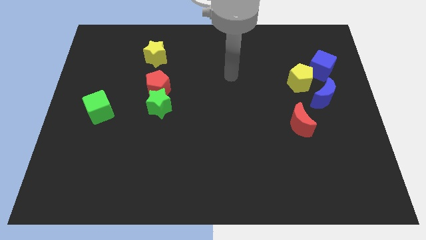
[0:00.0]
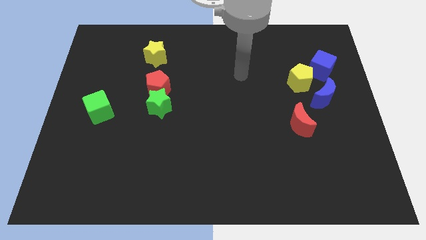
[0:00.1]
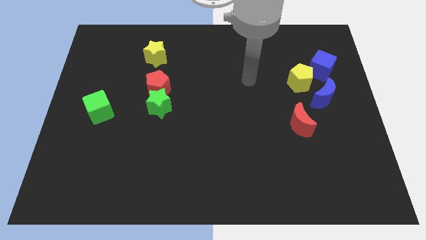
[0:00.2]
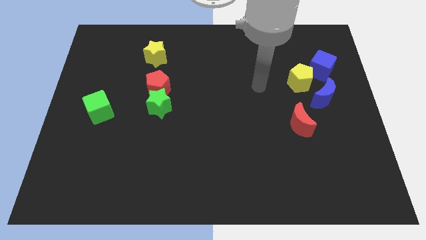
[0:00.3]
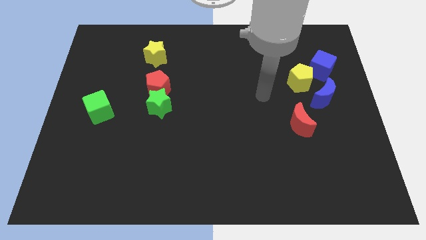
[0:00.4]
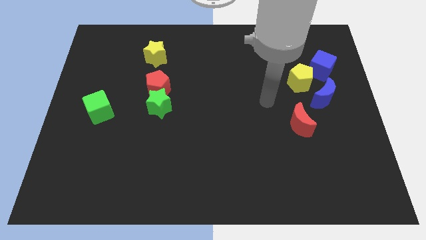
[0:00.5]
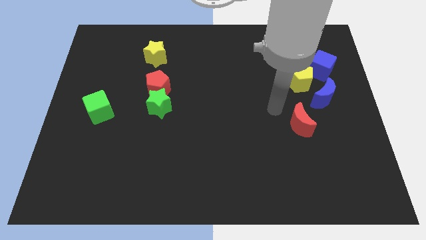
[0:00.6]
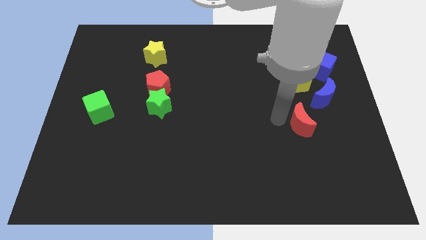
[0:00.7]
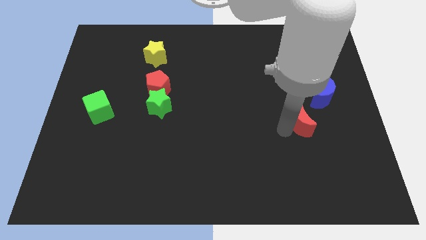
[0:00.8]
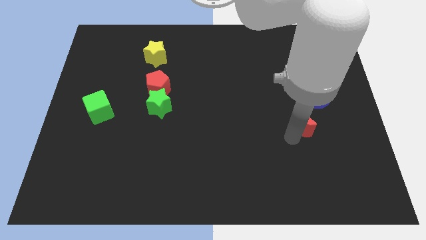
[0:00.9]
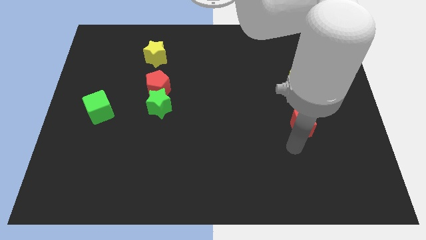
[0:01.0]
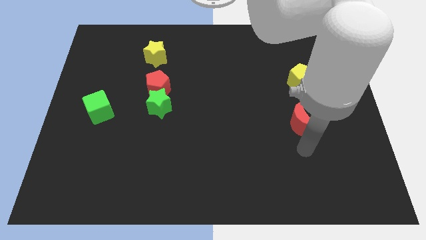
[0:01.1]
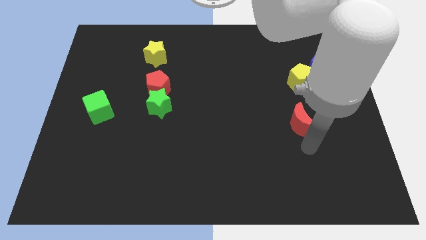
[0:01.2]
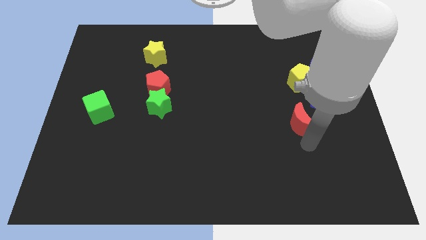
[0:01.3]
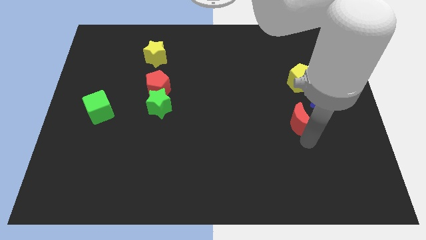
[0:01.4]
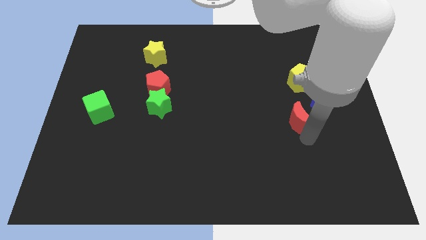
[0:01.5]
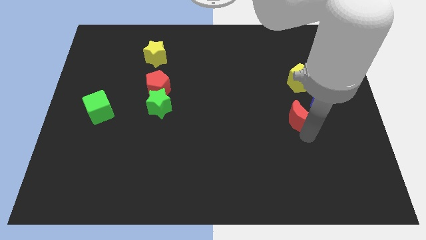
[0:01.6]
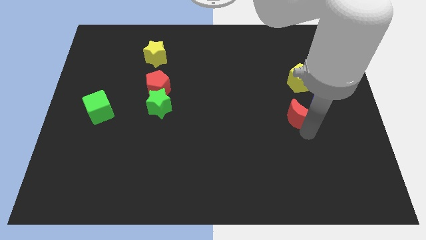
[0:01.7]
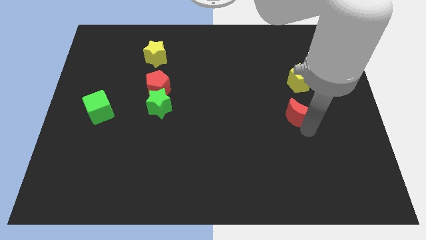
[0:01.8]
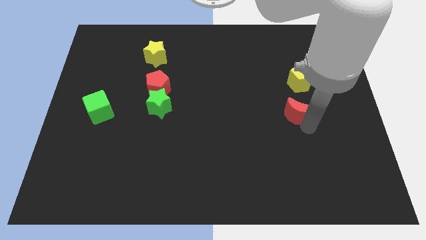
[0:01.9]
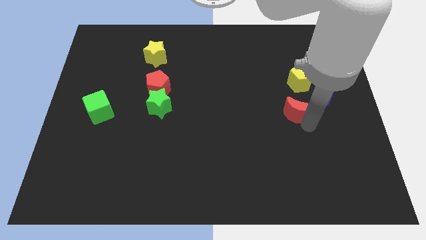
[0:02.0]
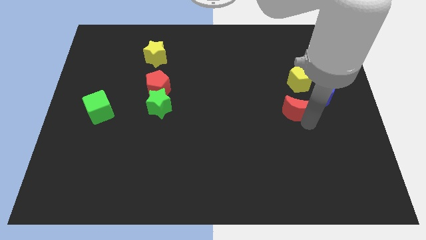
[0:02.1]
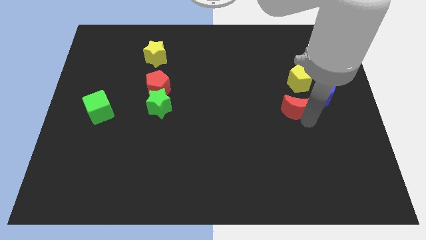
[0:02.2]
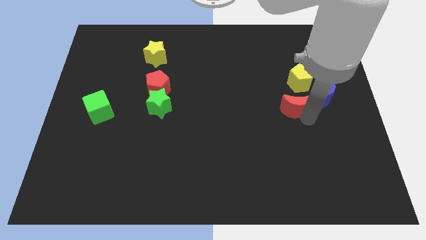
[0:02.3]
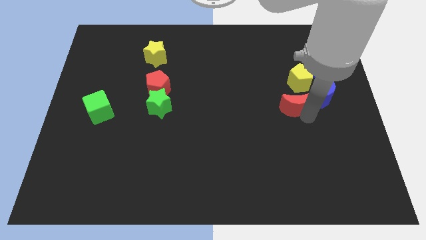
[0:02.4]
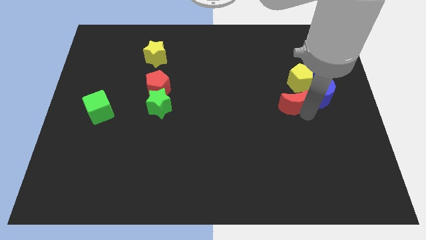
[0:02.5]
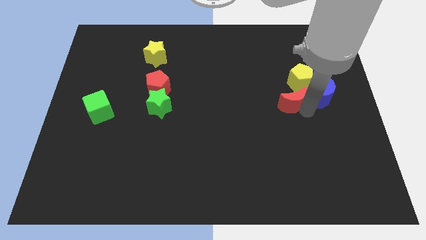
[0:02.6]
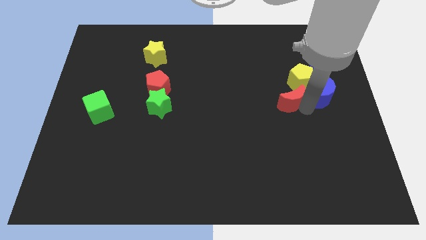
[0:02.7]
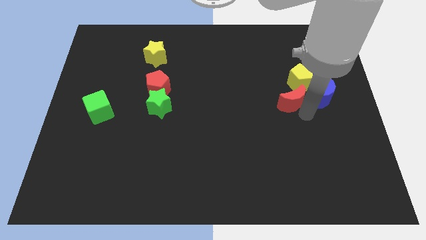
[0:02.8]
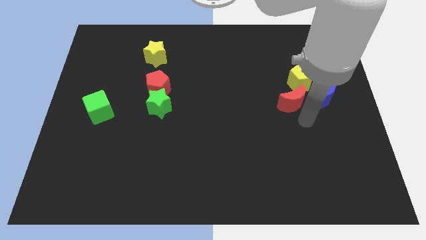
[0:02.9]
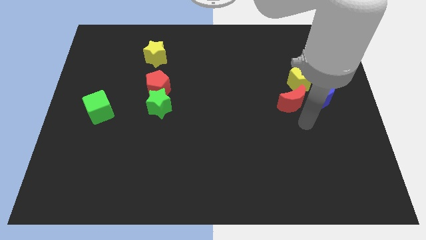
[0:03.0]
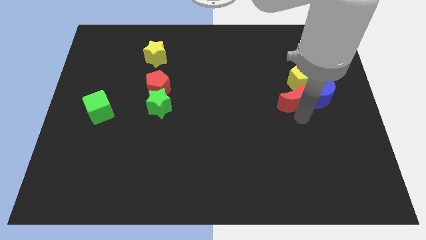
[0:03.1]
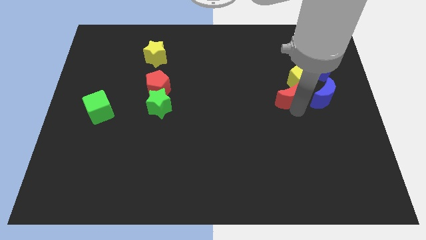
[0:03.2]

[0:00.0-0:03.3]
slide the red moon a bit up

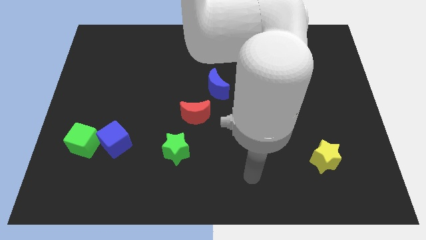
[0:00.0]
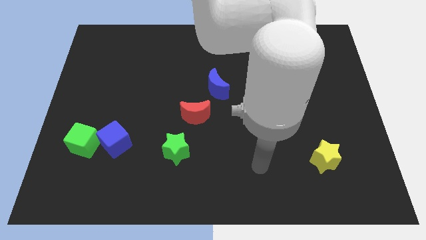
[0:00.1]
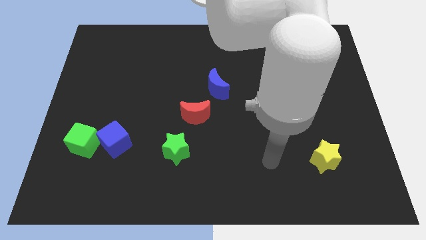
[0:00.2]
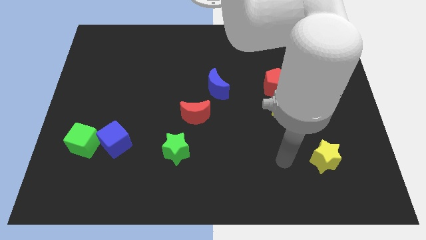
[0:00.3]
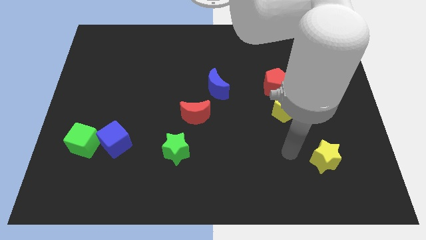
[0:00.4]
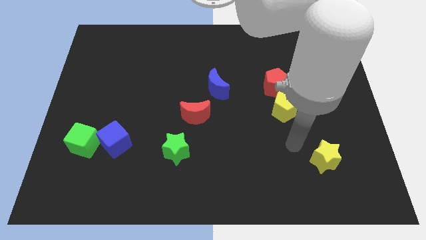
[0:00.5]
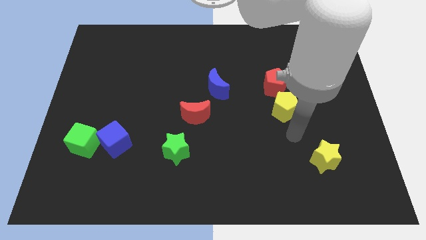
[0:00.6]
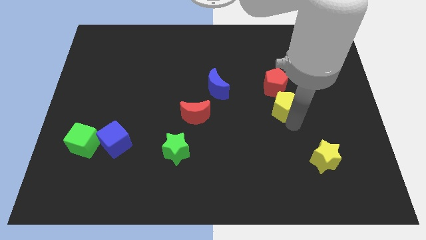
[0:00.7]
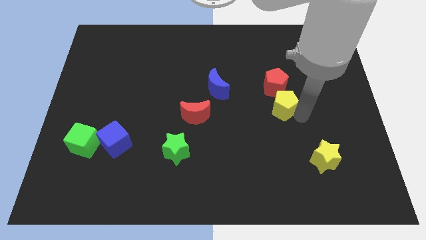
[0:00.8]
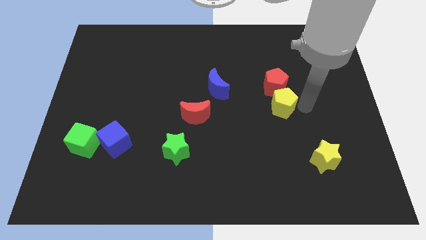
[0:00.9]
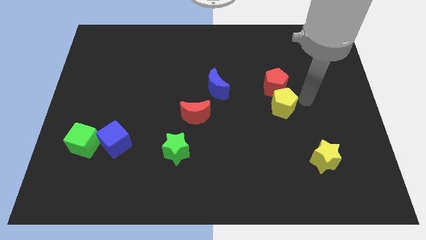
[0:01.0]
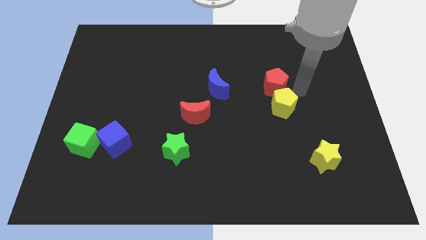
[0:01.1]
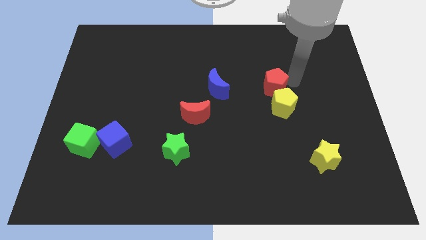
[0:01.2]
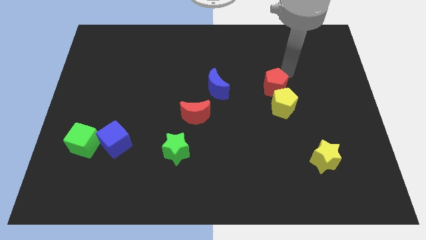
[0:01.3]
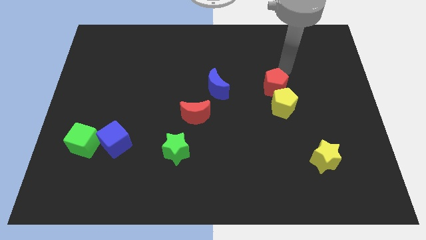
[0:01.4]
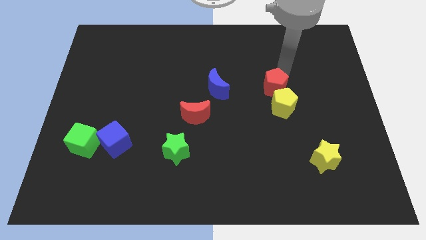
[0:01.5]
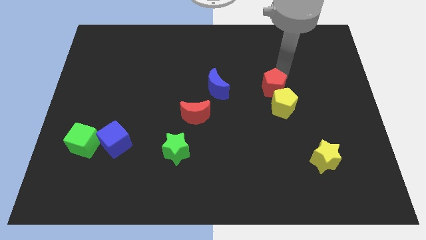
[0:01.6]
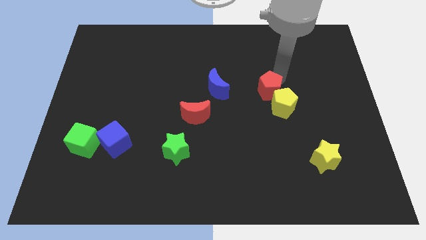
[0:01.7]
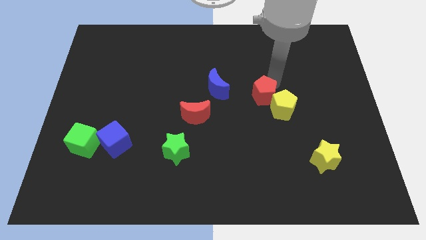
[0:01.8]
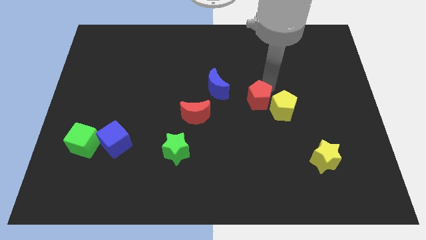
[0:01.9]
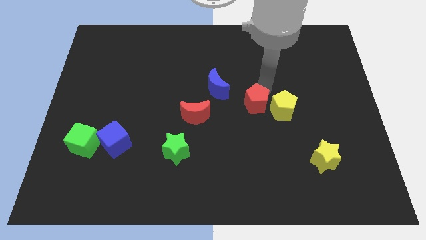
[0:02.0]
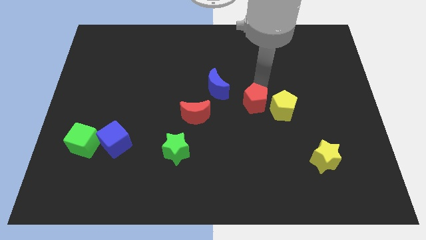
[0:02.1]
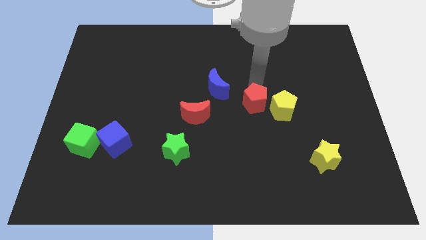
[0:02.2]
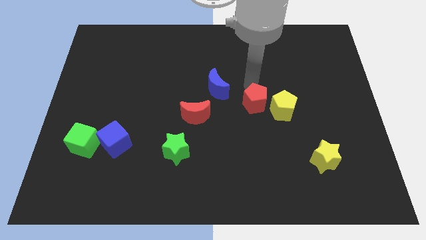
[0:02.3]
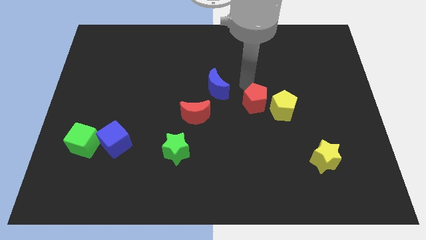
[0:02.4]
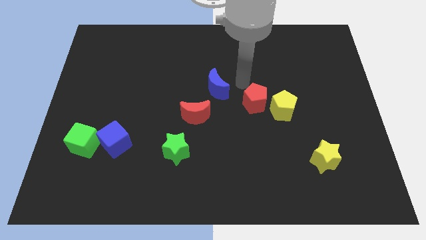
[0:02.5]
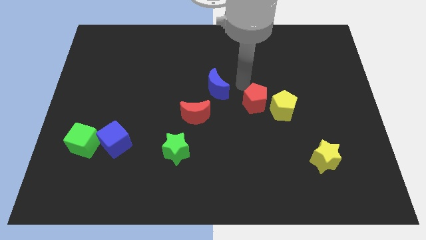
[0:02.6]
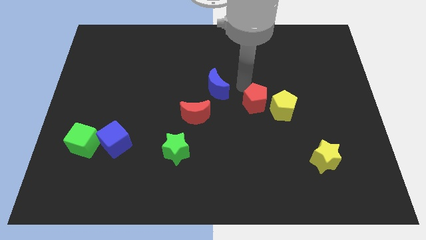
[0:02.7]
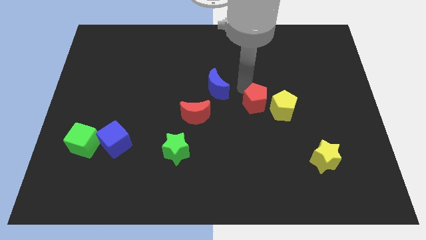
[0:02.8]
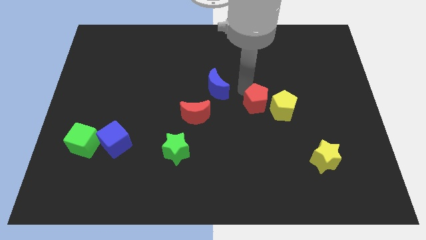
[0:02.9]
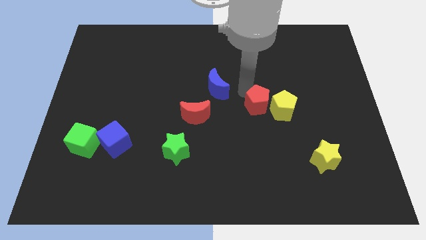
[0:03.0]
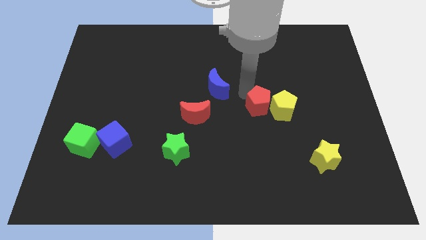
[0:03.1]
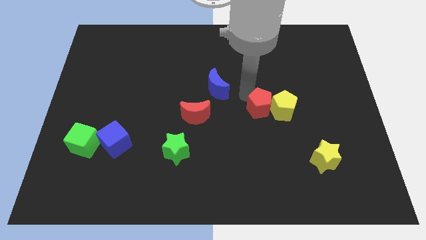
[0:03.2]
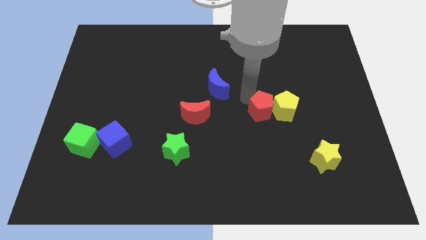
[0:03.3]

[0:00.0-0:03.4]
slightly push the red pentagon downwards

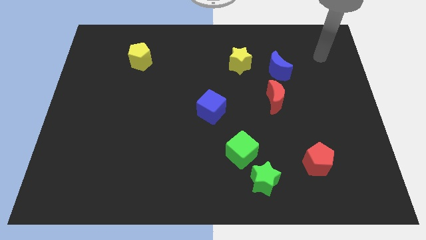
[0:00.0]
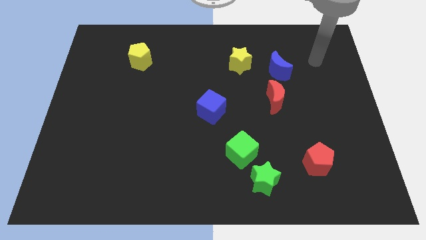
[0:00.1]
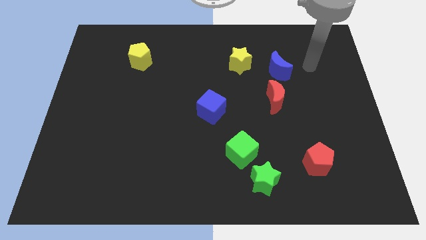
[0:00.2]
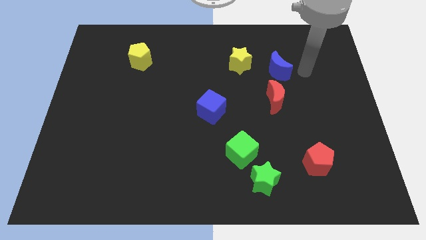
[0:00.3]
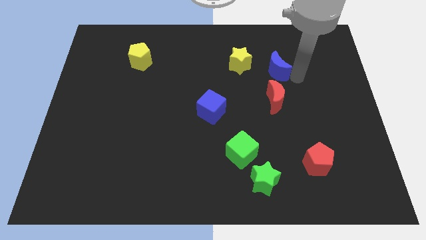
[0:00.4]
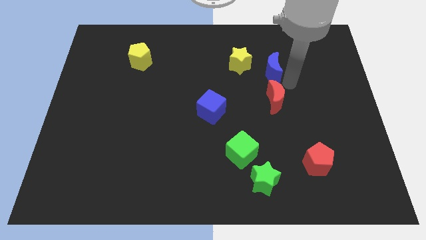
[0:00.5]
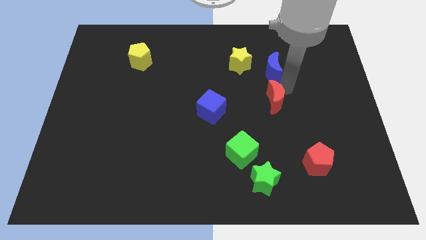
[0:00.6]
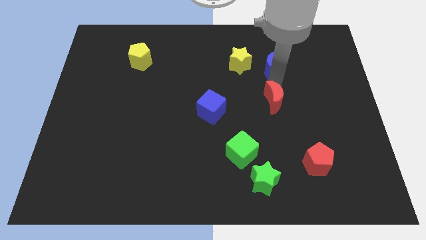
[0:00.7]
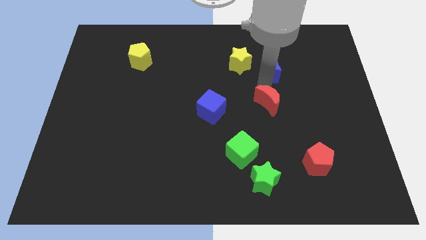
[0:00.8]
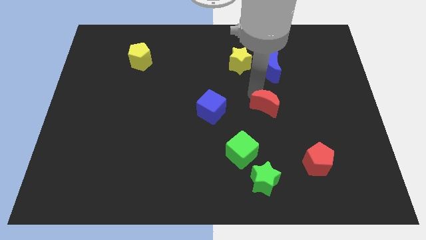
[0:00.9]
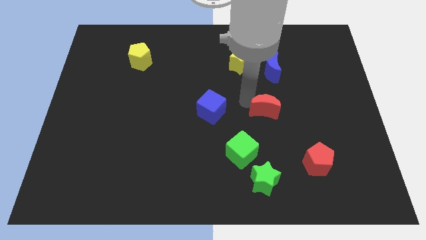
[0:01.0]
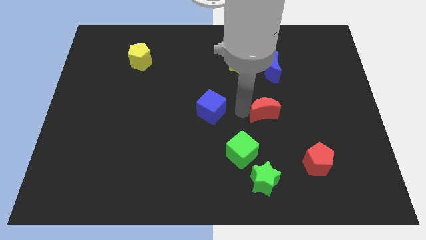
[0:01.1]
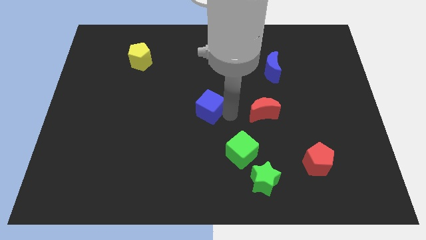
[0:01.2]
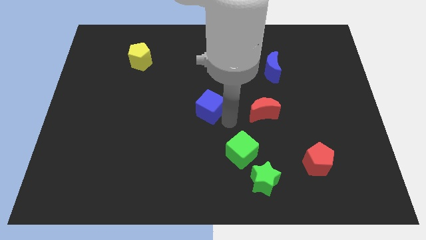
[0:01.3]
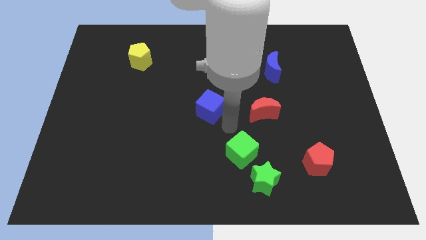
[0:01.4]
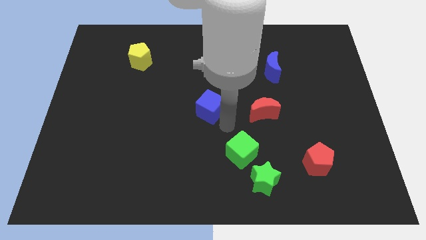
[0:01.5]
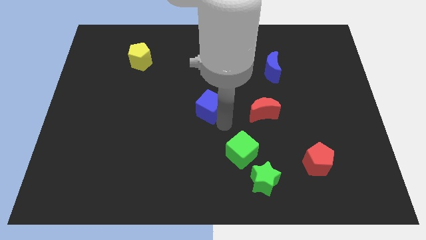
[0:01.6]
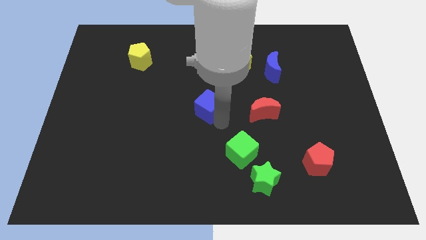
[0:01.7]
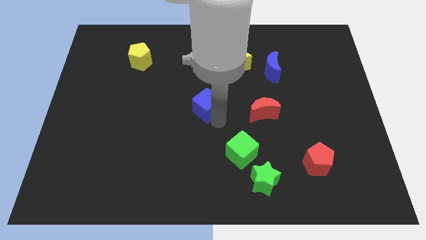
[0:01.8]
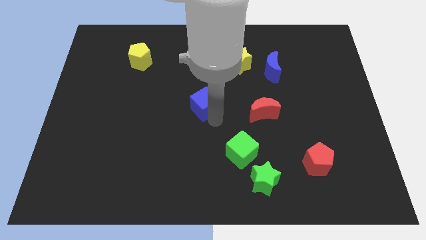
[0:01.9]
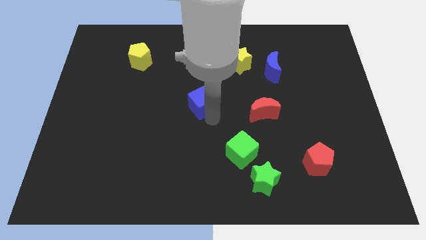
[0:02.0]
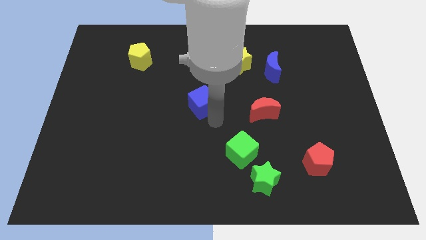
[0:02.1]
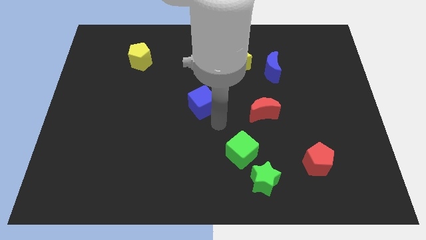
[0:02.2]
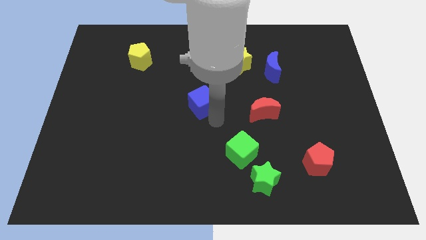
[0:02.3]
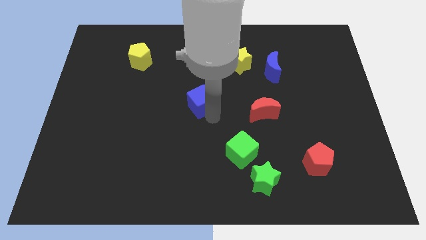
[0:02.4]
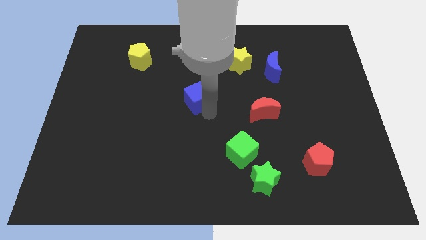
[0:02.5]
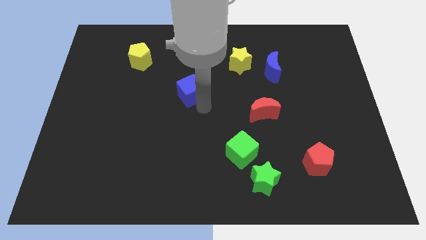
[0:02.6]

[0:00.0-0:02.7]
move the blue cube up and then left a little bit
